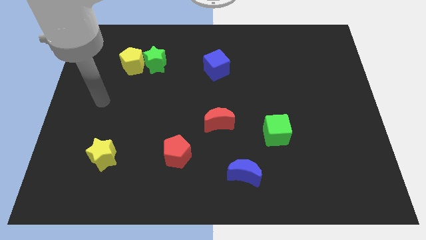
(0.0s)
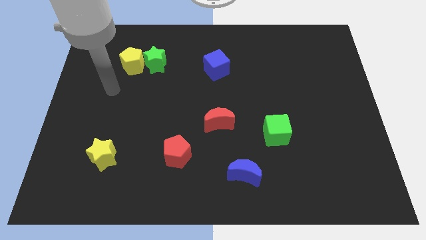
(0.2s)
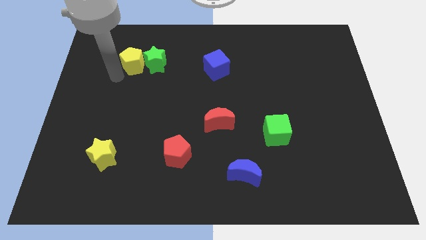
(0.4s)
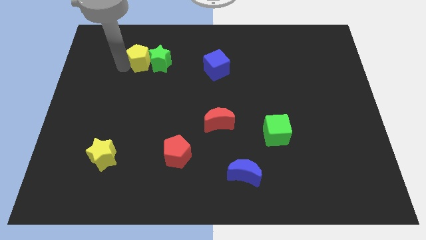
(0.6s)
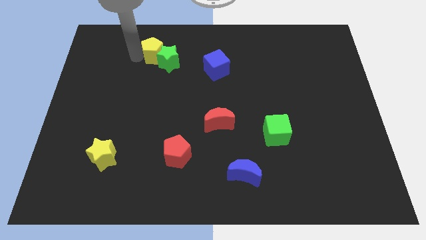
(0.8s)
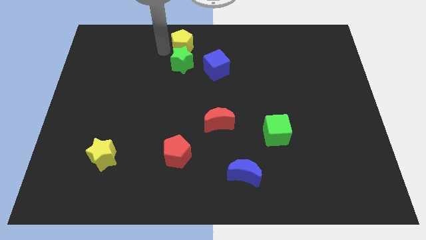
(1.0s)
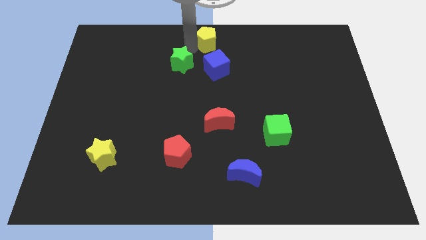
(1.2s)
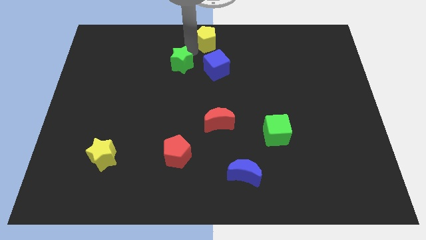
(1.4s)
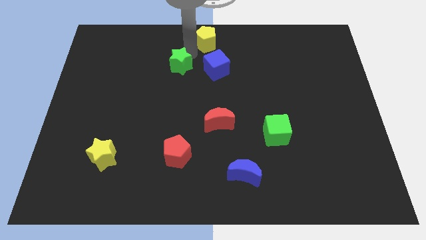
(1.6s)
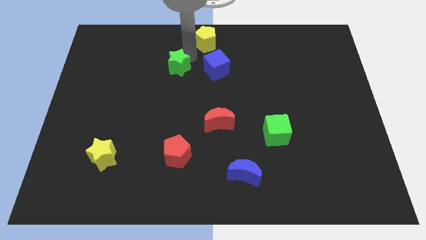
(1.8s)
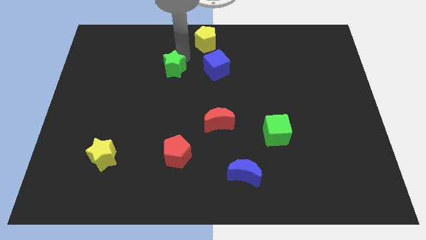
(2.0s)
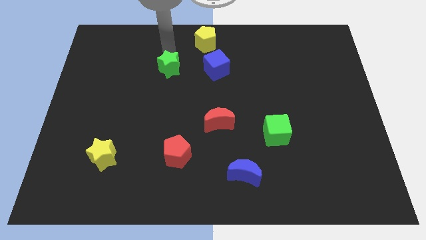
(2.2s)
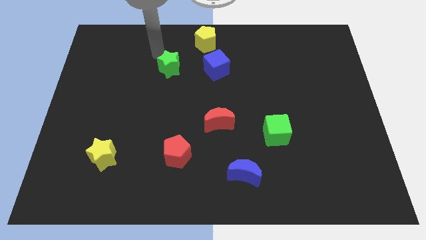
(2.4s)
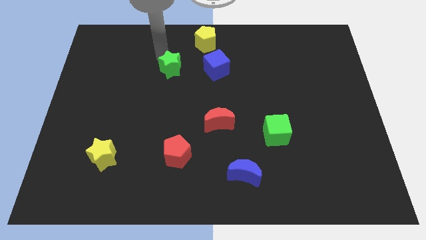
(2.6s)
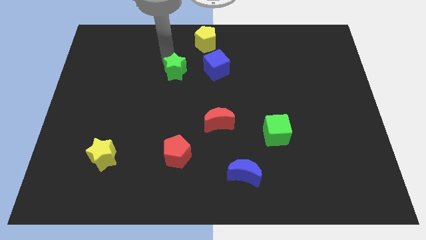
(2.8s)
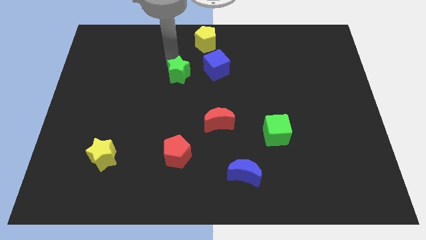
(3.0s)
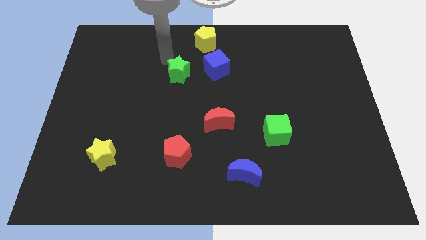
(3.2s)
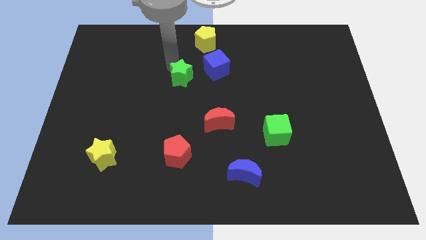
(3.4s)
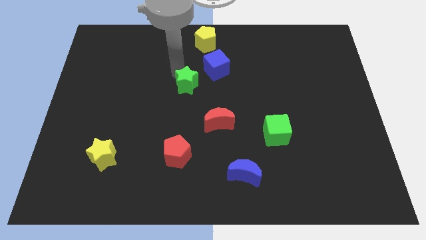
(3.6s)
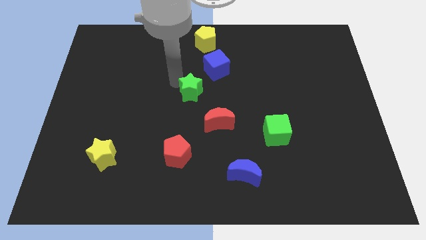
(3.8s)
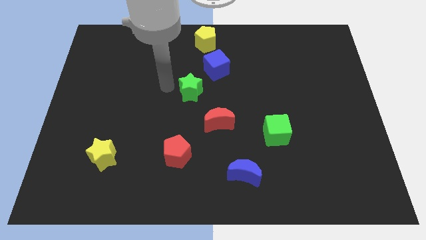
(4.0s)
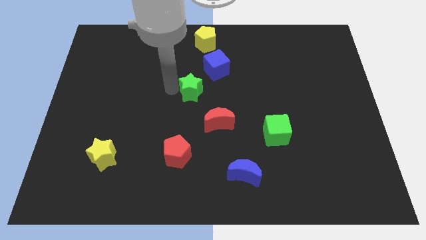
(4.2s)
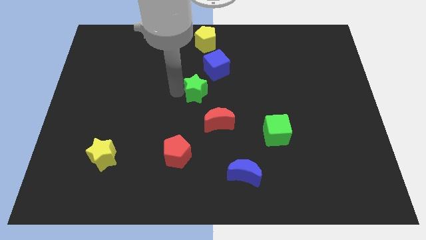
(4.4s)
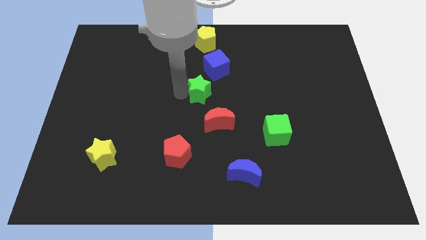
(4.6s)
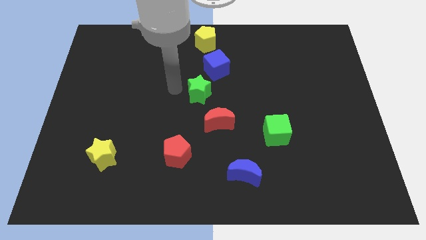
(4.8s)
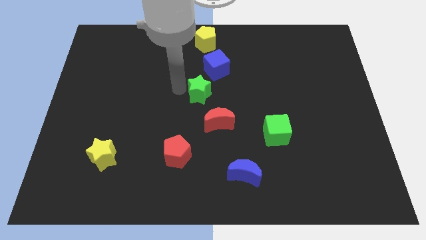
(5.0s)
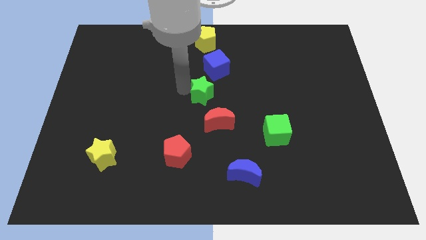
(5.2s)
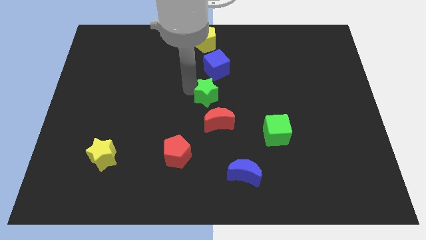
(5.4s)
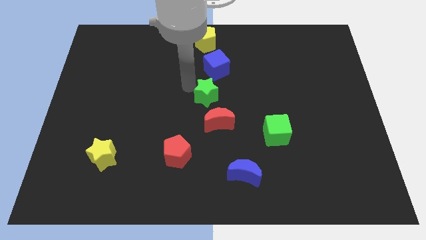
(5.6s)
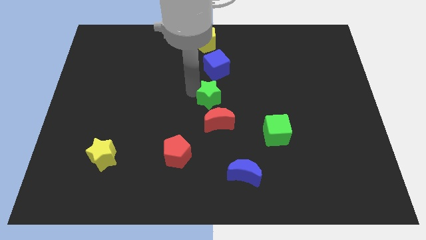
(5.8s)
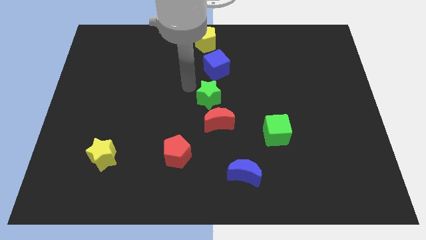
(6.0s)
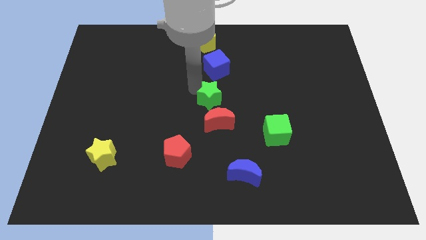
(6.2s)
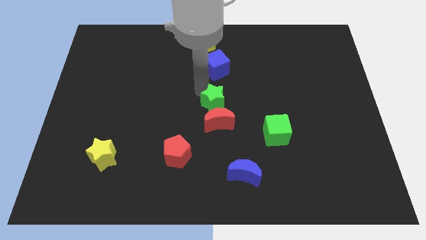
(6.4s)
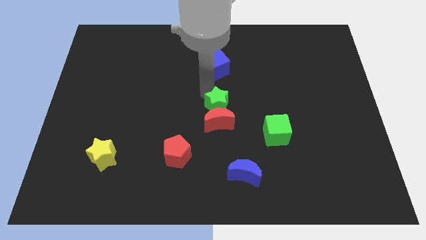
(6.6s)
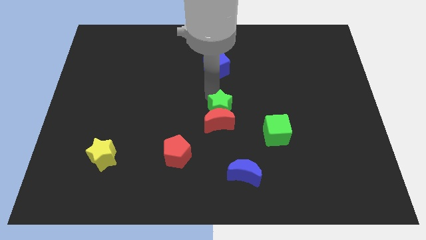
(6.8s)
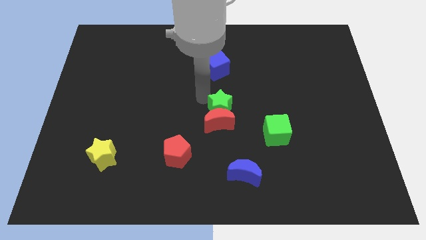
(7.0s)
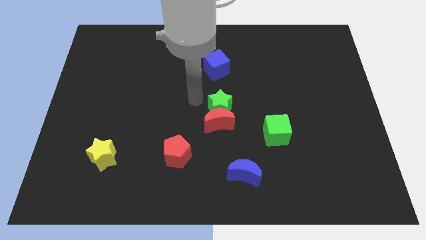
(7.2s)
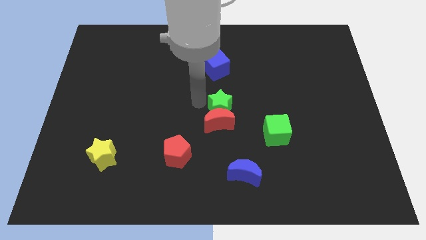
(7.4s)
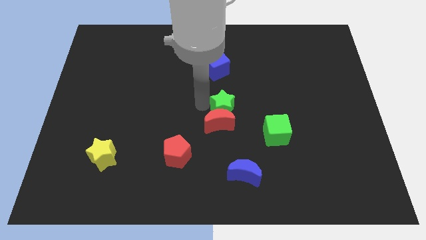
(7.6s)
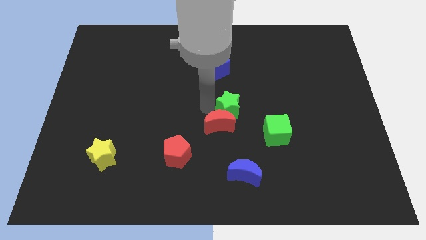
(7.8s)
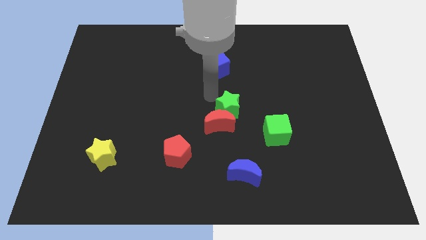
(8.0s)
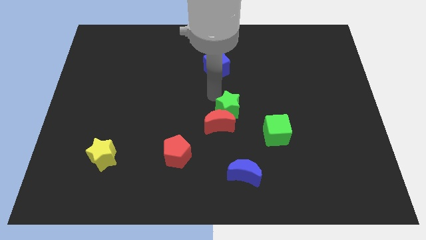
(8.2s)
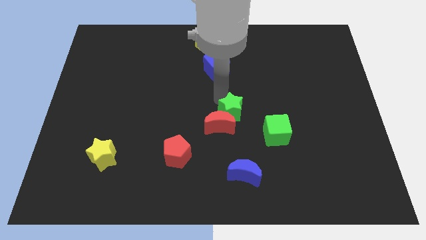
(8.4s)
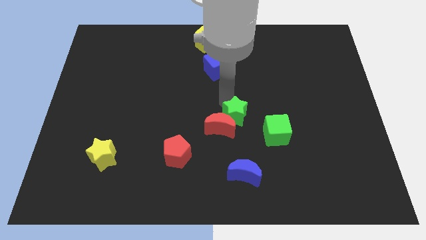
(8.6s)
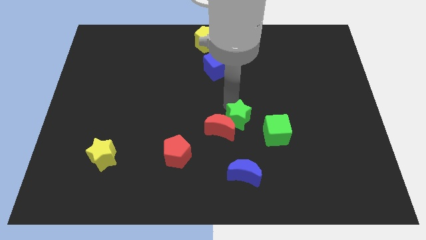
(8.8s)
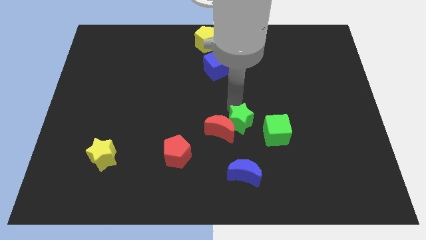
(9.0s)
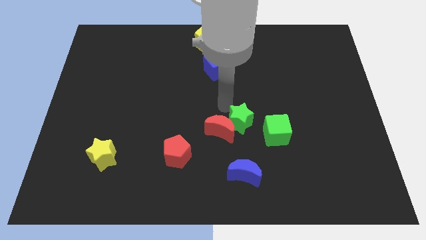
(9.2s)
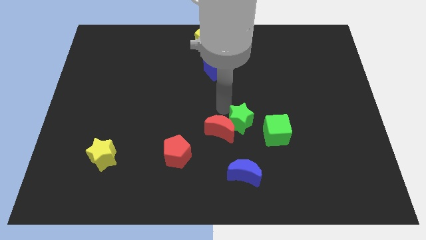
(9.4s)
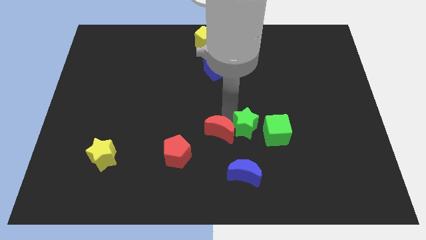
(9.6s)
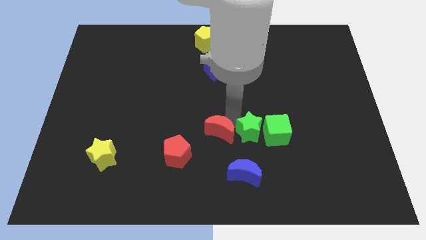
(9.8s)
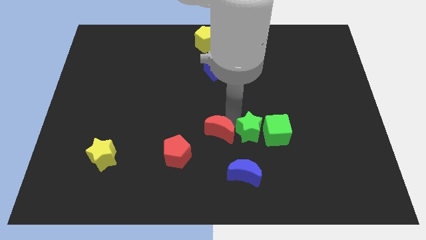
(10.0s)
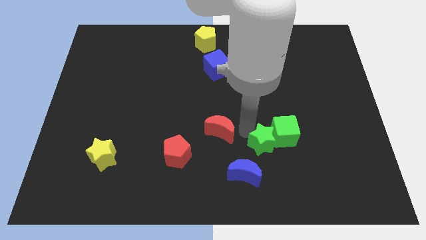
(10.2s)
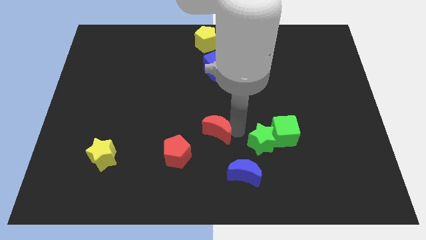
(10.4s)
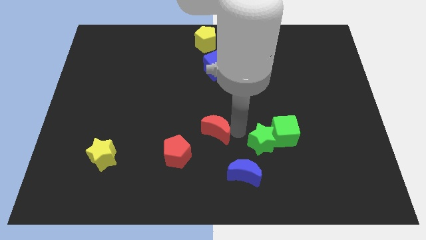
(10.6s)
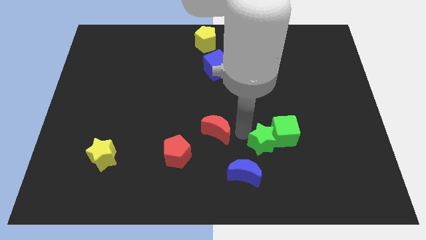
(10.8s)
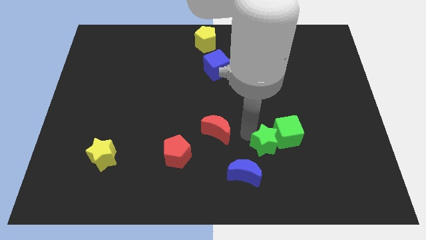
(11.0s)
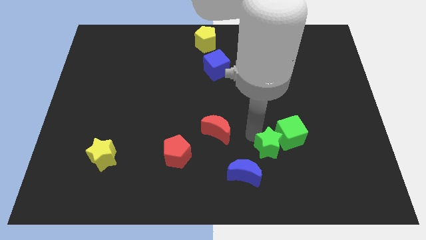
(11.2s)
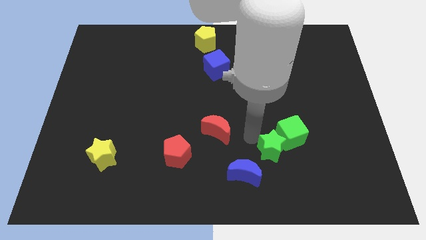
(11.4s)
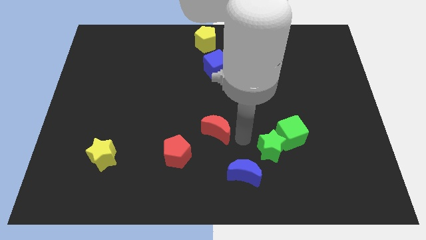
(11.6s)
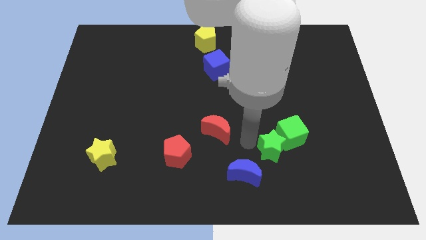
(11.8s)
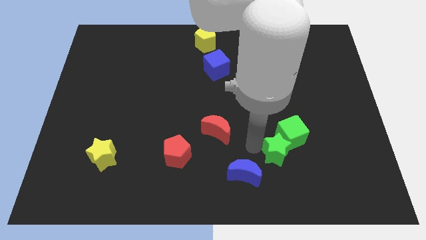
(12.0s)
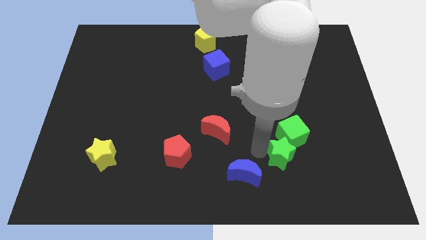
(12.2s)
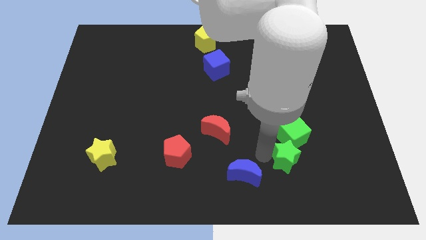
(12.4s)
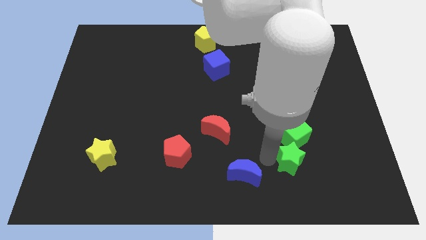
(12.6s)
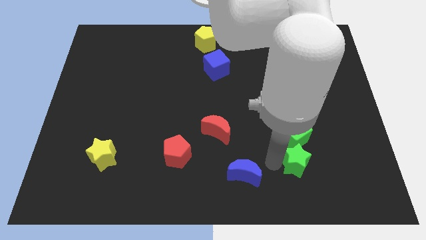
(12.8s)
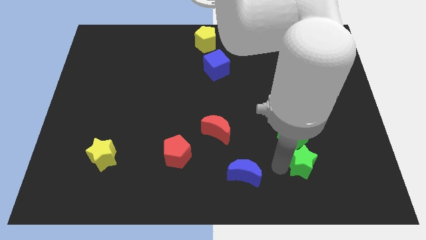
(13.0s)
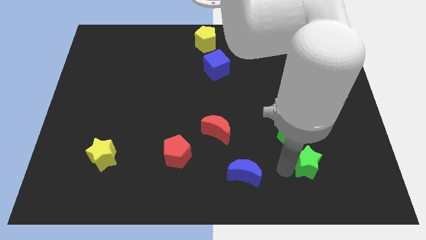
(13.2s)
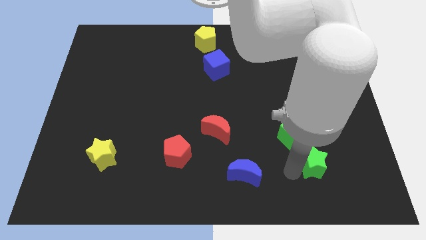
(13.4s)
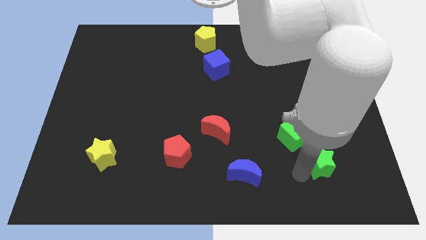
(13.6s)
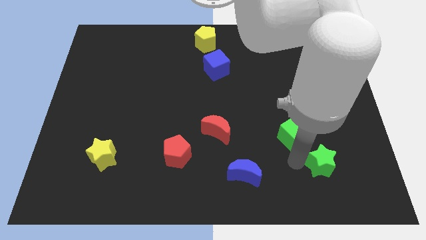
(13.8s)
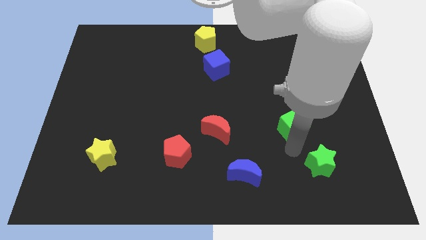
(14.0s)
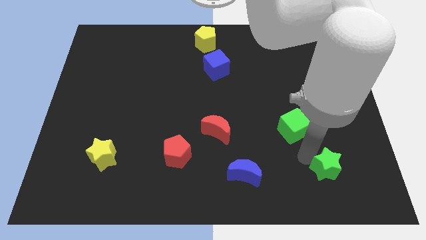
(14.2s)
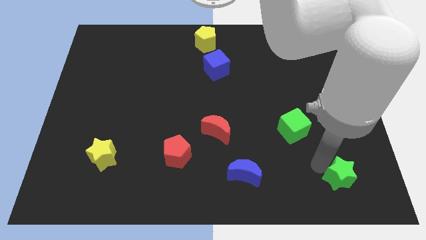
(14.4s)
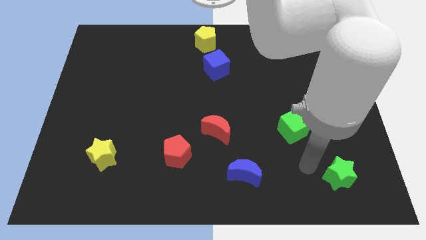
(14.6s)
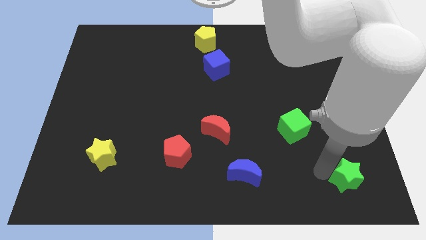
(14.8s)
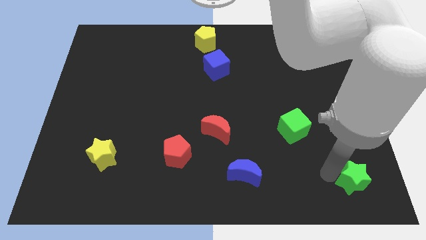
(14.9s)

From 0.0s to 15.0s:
move the green star to the bottom right of the board

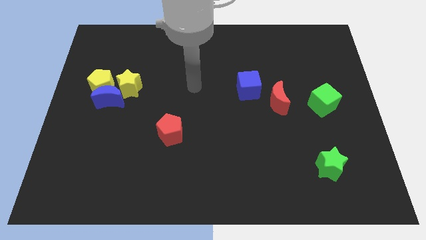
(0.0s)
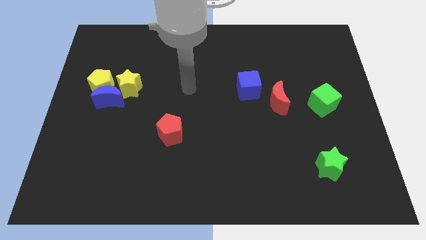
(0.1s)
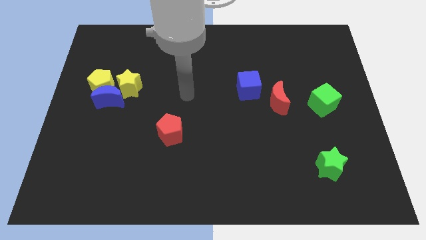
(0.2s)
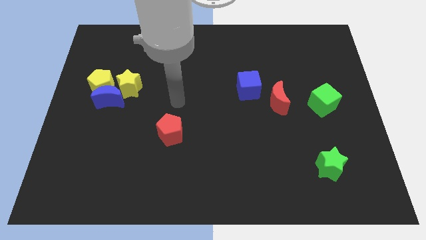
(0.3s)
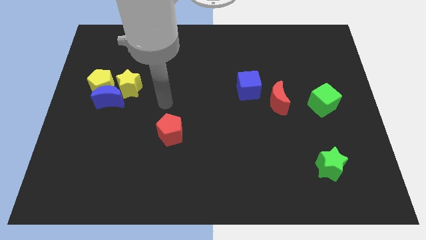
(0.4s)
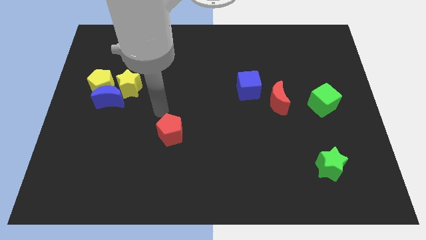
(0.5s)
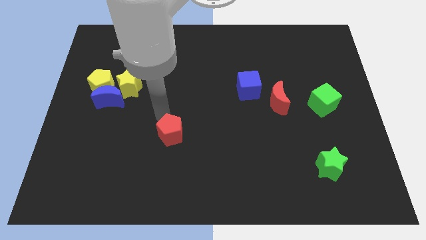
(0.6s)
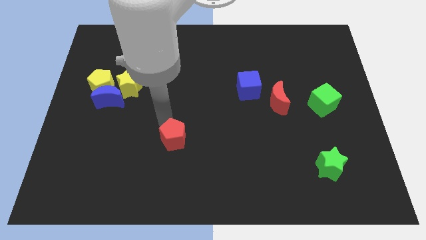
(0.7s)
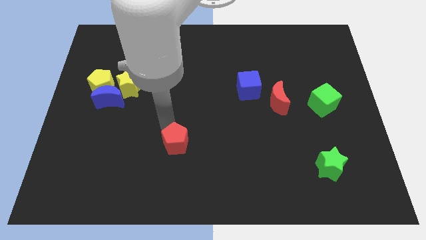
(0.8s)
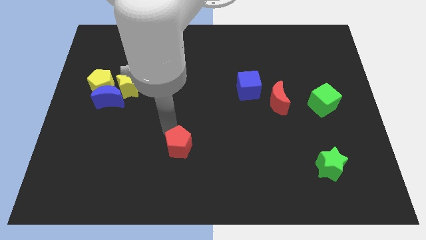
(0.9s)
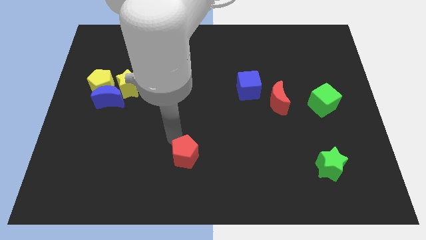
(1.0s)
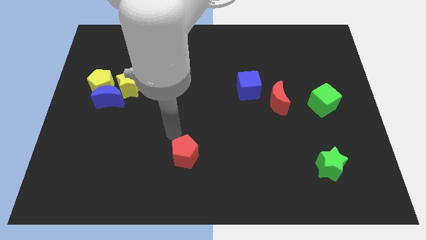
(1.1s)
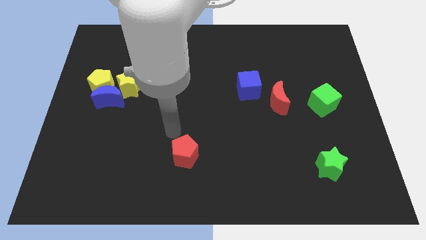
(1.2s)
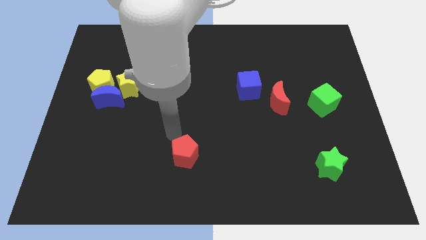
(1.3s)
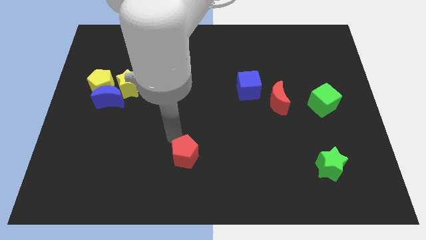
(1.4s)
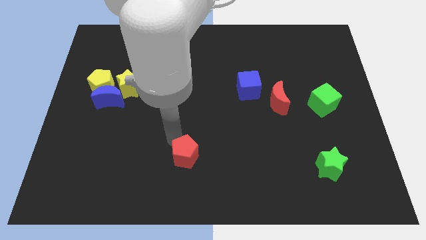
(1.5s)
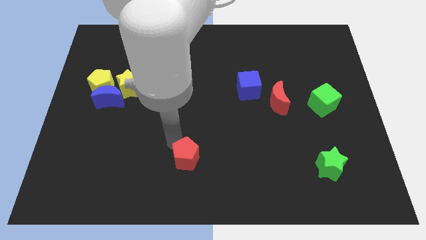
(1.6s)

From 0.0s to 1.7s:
push the red pentagon to the bottom
